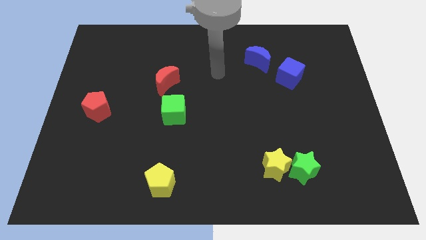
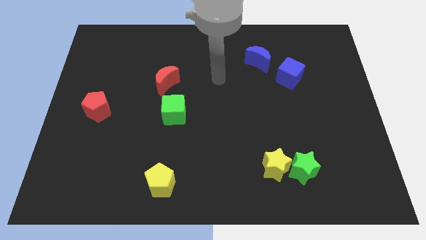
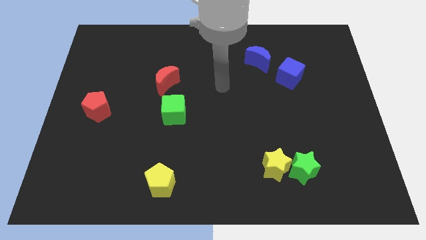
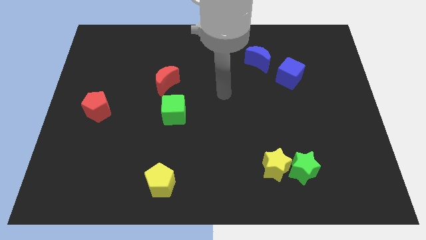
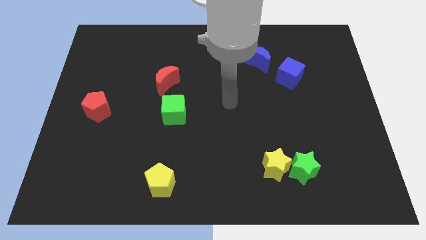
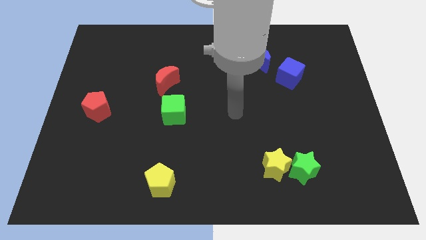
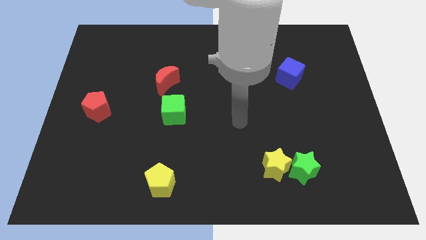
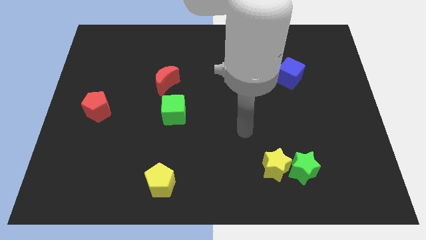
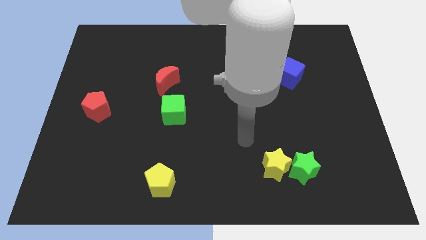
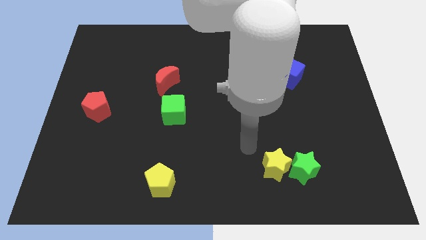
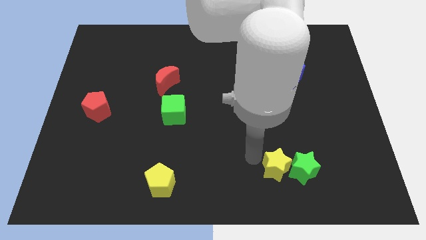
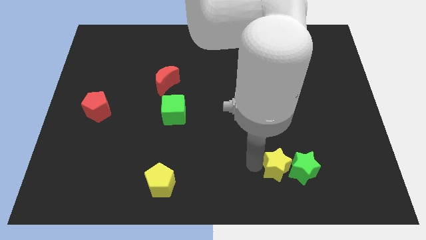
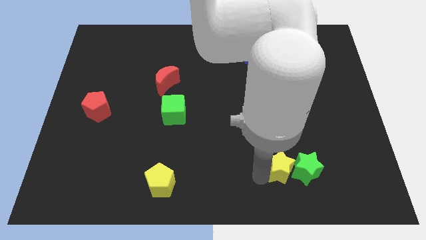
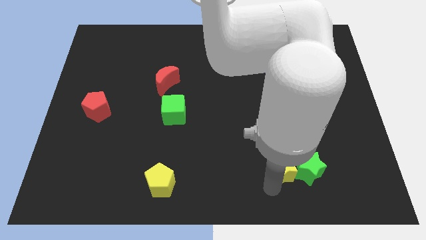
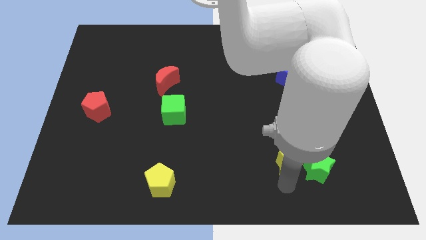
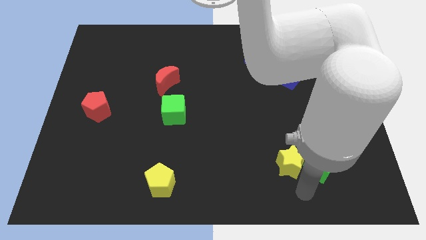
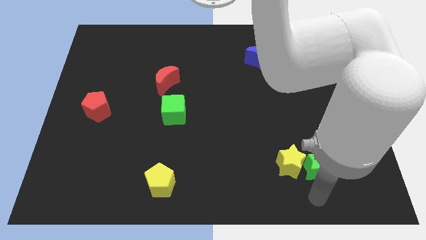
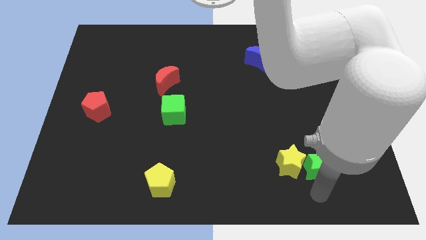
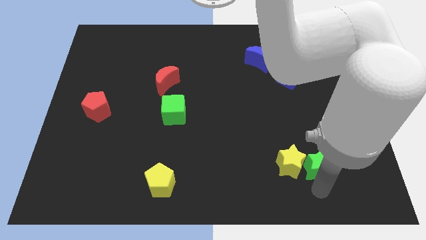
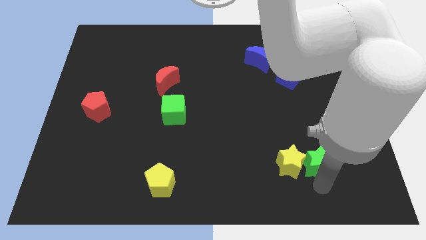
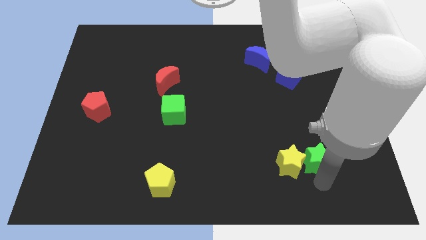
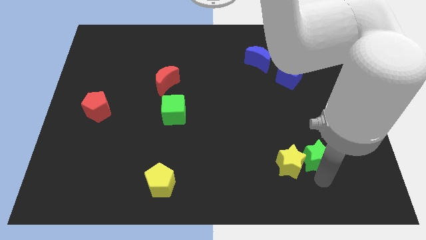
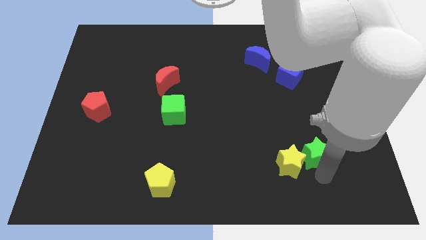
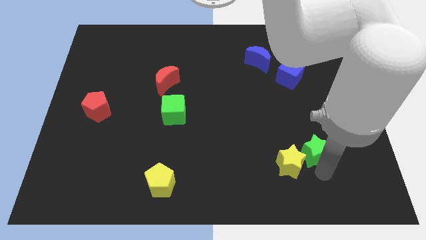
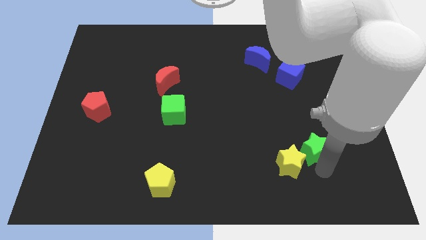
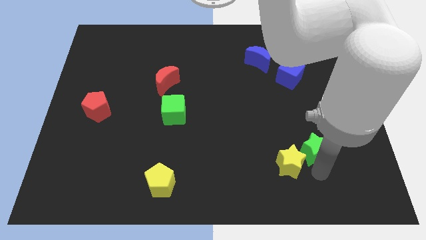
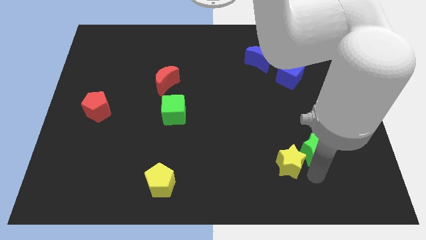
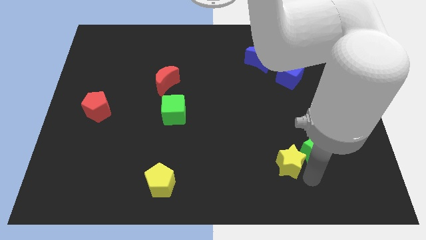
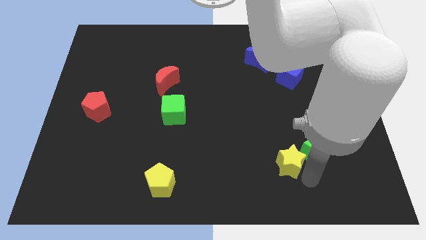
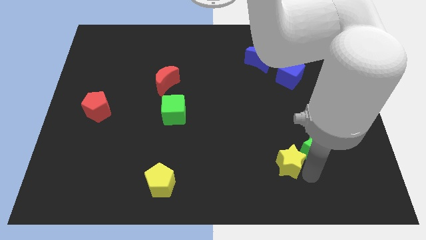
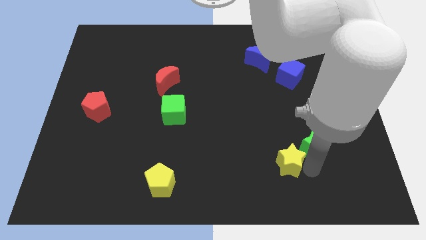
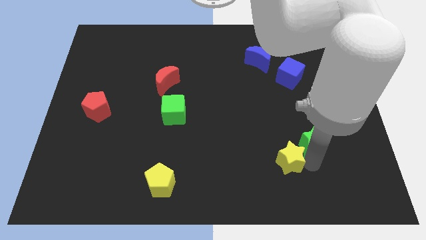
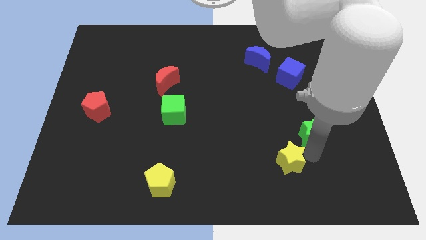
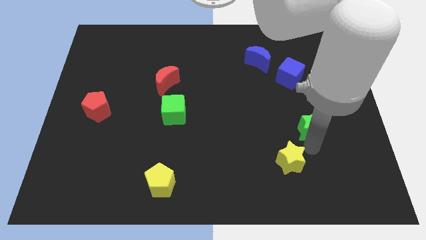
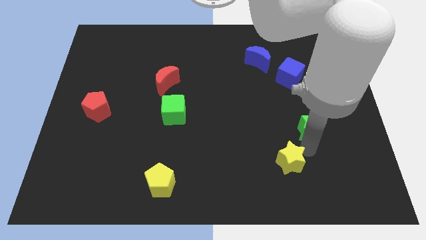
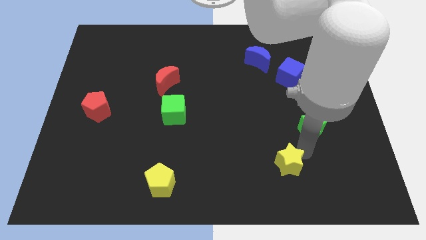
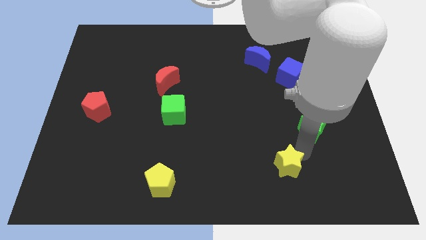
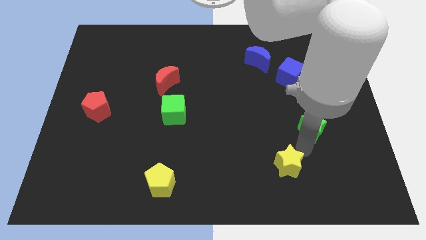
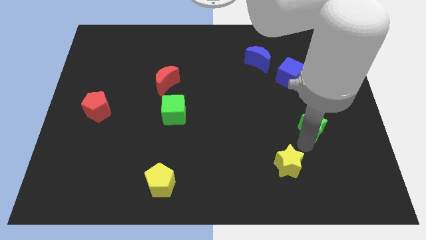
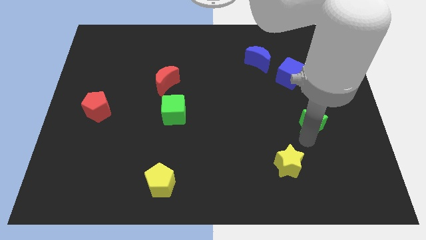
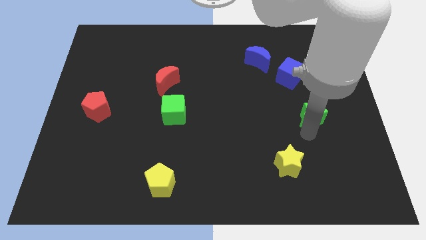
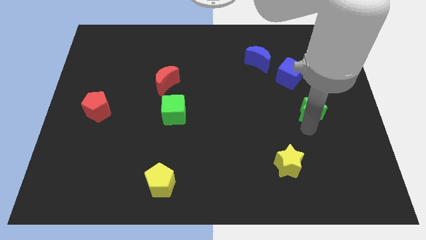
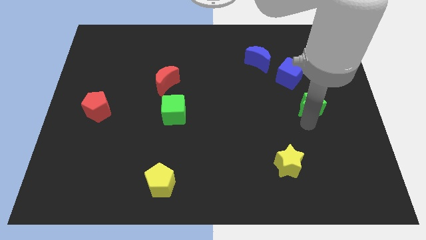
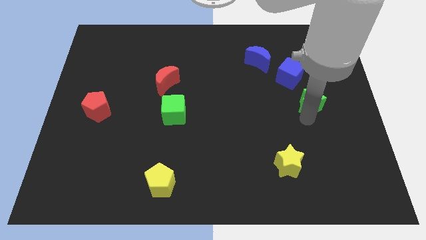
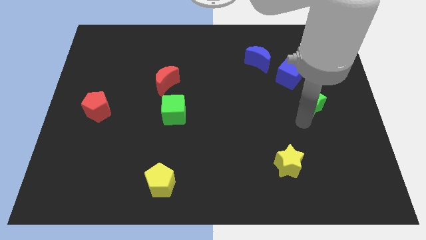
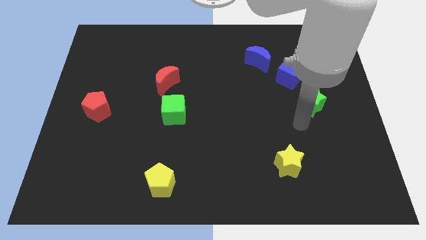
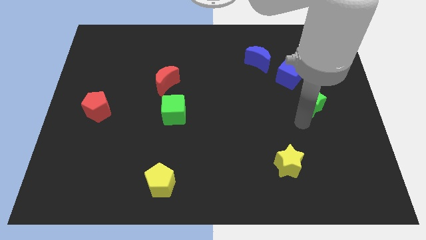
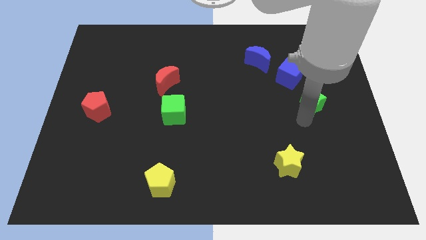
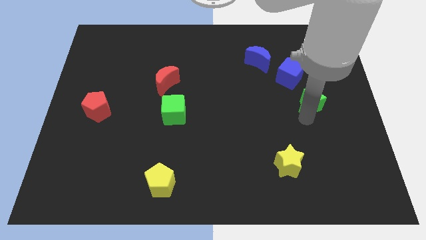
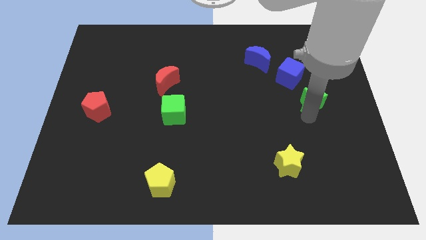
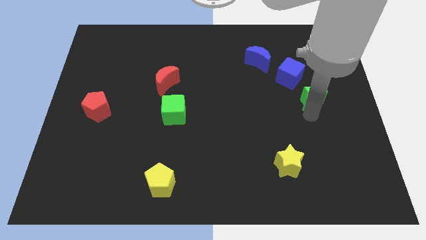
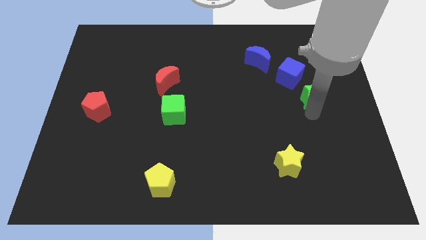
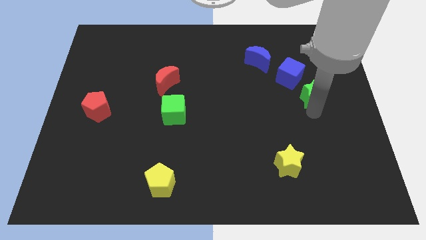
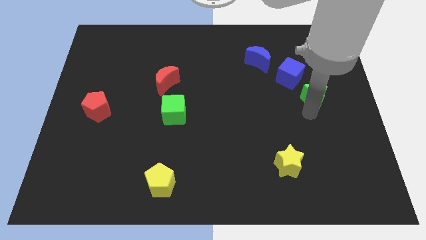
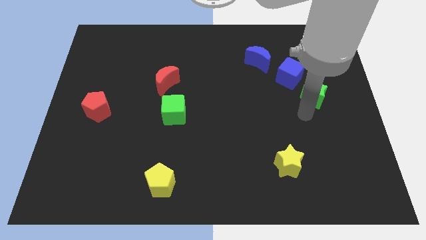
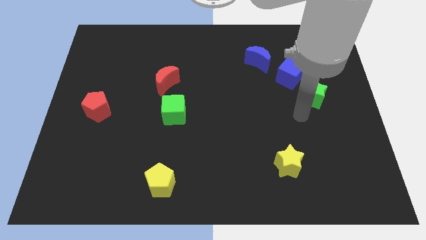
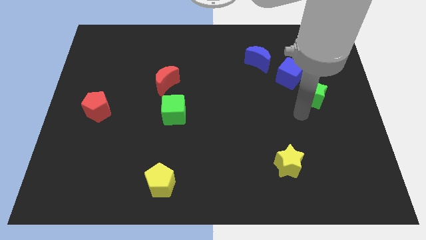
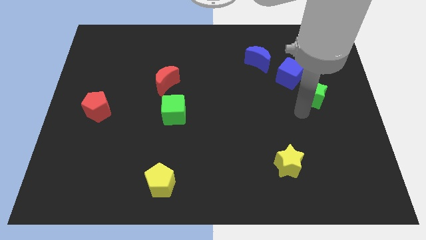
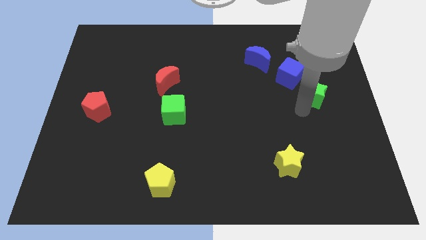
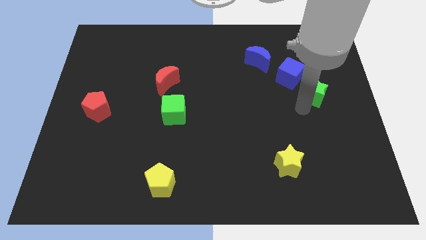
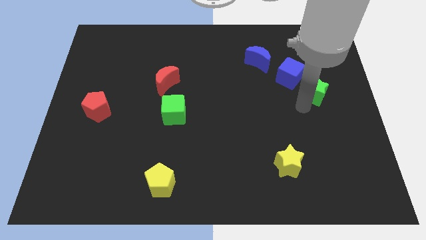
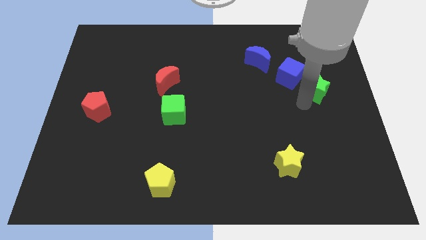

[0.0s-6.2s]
push the green star upwards

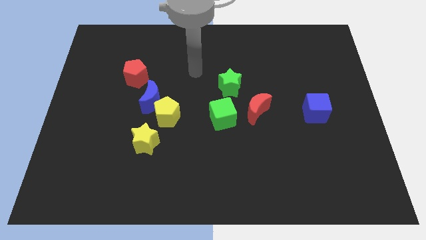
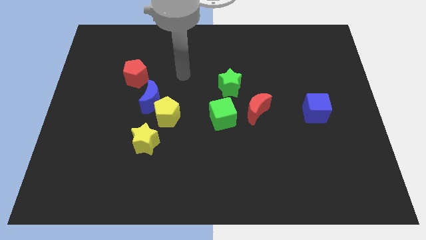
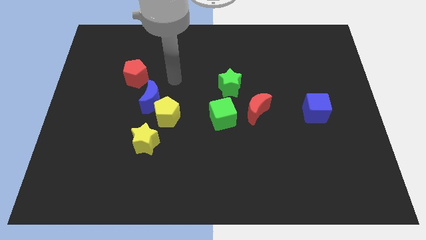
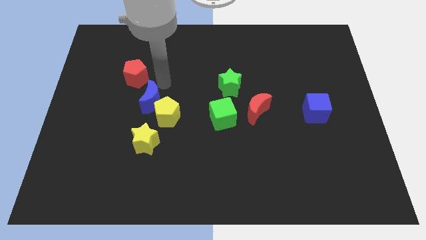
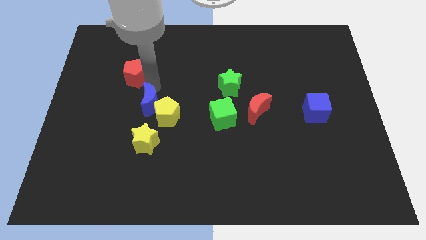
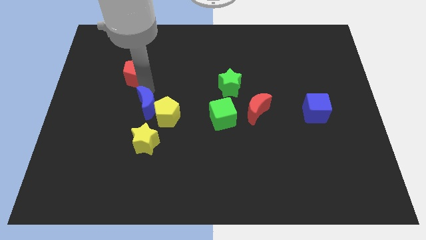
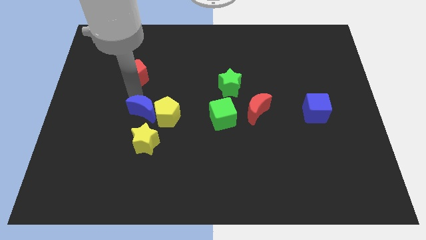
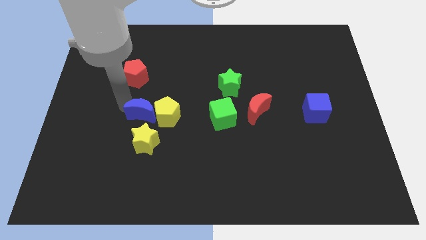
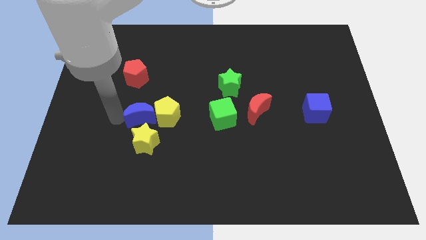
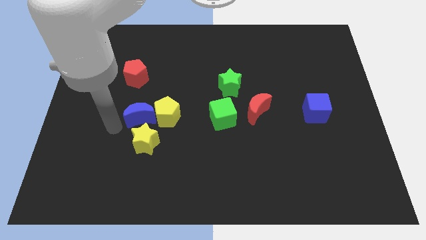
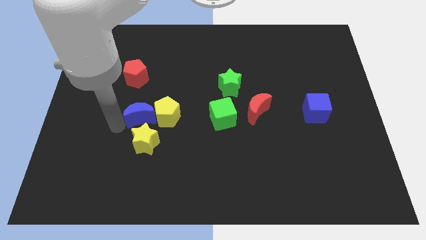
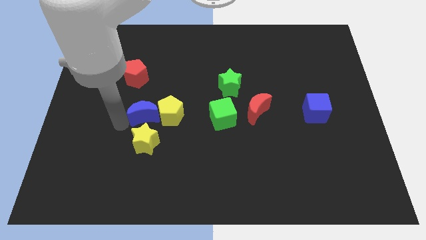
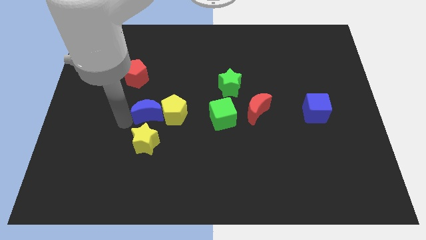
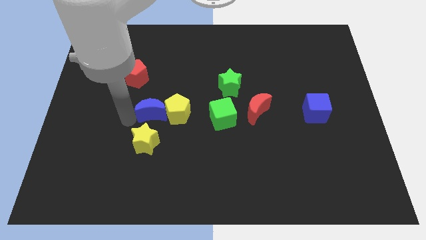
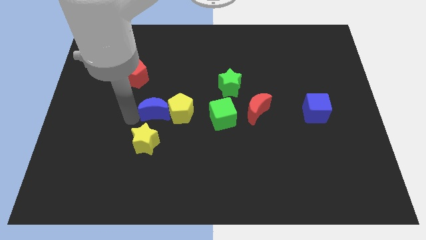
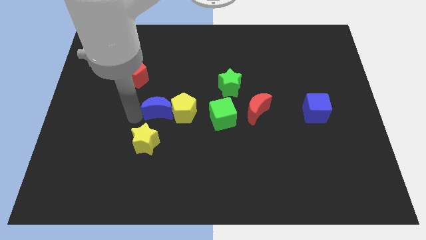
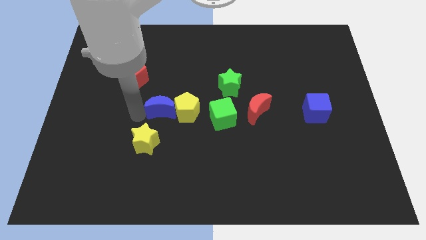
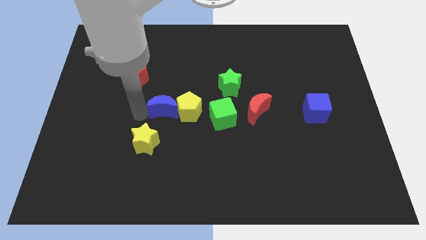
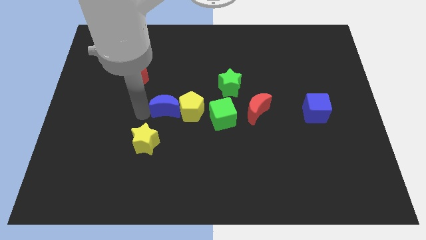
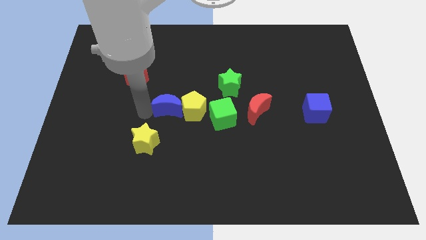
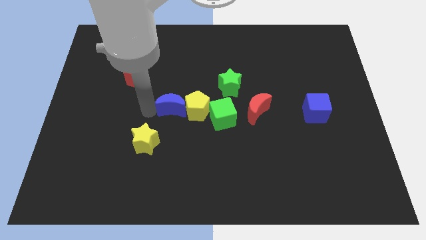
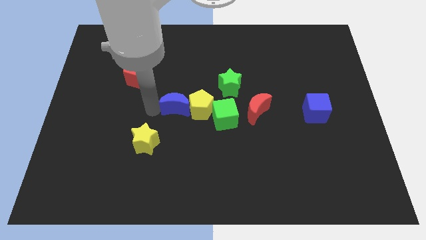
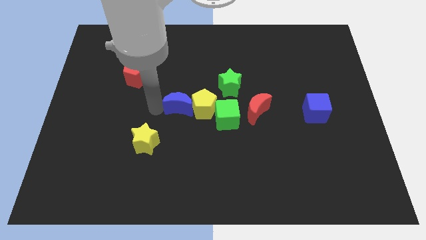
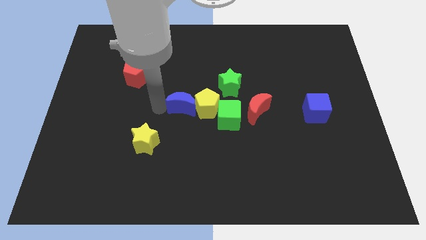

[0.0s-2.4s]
slide the blue moon to the right a bit
